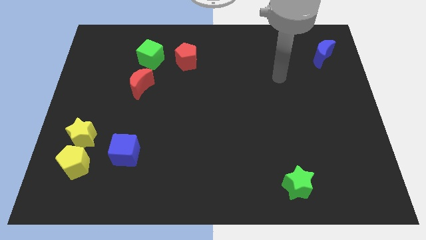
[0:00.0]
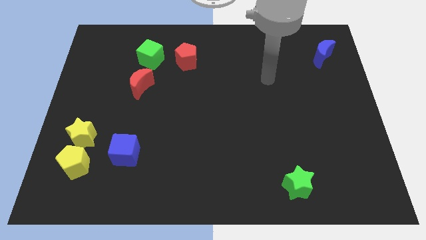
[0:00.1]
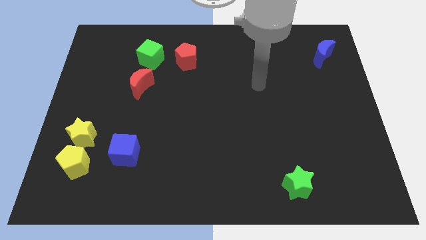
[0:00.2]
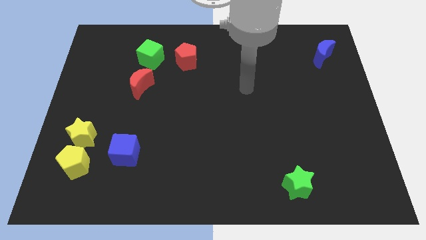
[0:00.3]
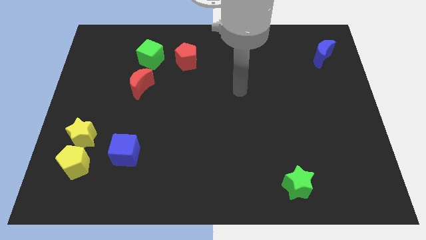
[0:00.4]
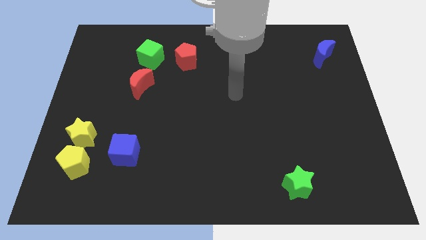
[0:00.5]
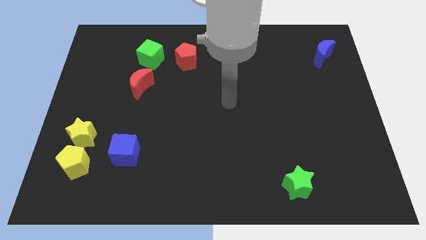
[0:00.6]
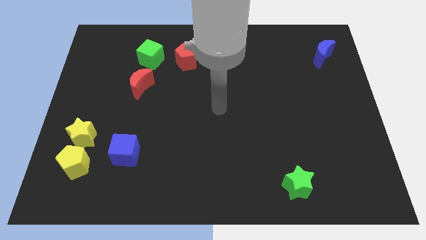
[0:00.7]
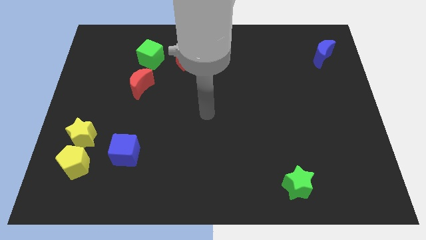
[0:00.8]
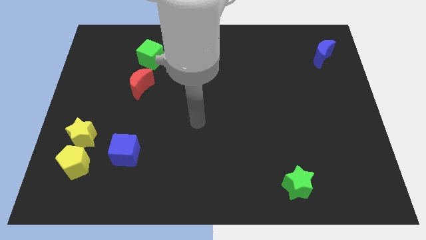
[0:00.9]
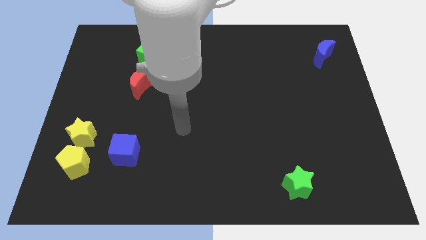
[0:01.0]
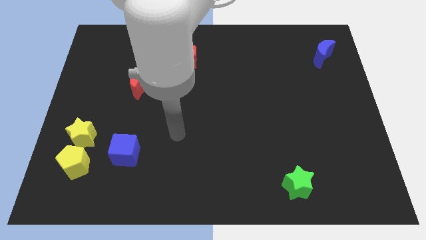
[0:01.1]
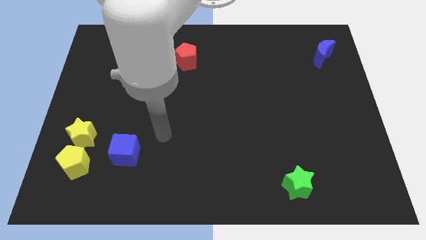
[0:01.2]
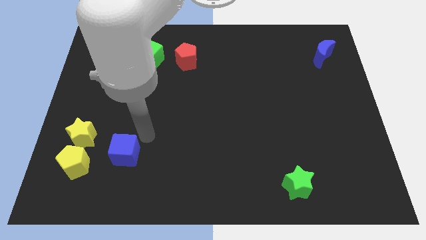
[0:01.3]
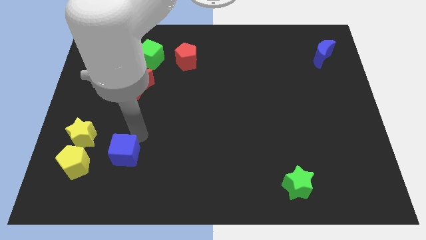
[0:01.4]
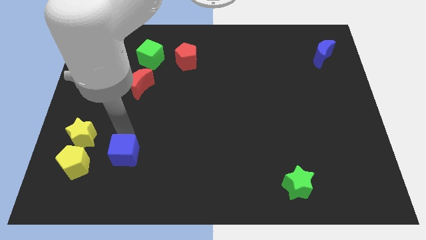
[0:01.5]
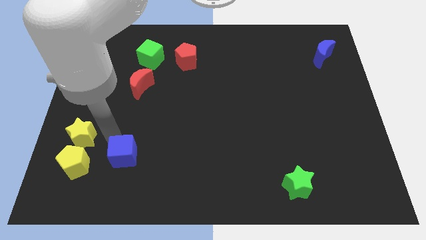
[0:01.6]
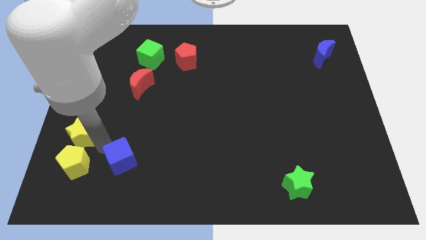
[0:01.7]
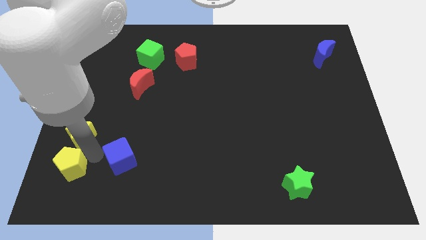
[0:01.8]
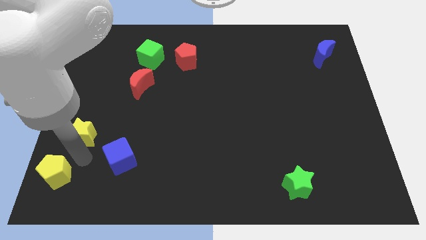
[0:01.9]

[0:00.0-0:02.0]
separate the yellow star from the yellow pentagon

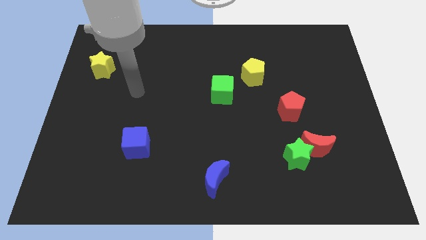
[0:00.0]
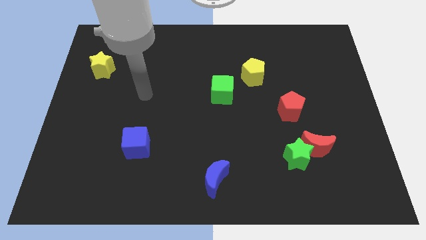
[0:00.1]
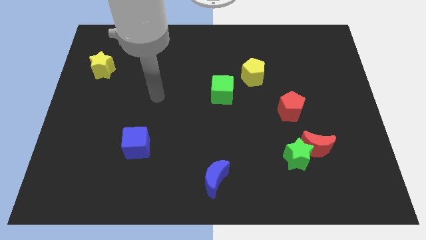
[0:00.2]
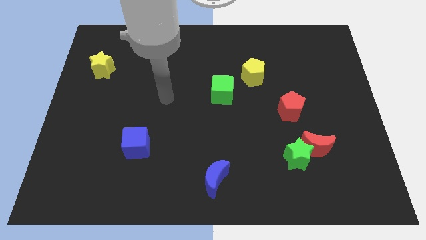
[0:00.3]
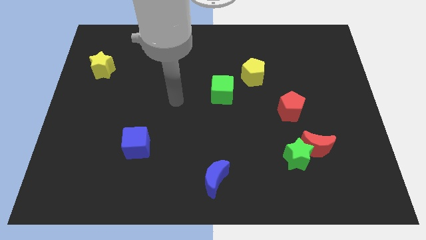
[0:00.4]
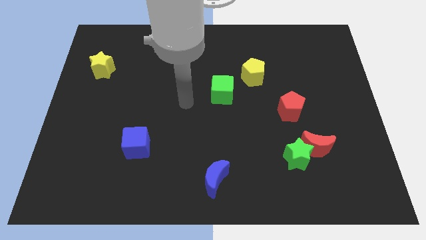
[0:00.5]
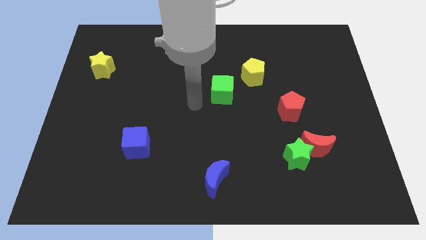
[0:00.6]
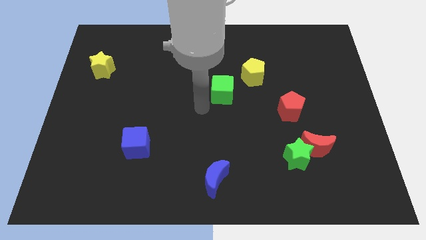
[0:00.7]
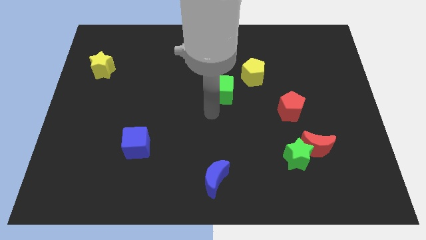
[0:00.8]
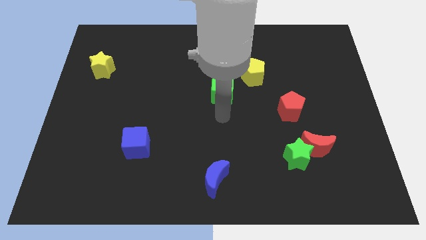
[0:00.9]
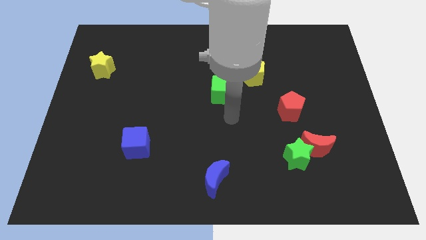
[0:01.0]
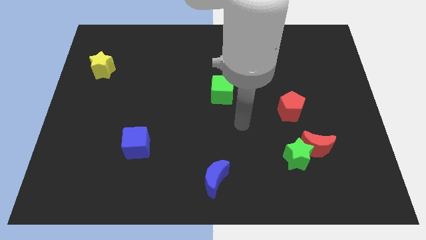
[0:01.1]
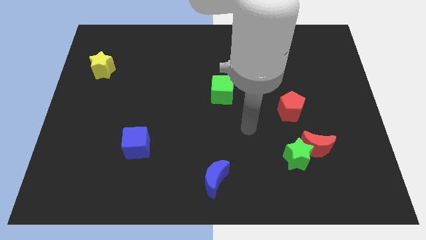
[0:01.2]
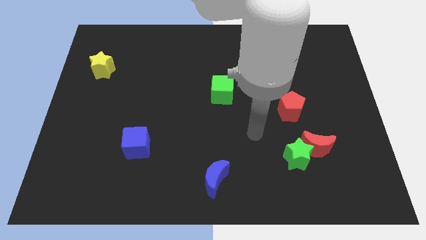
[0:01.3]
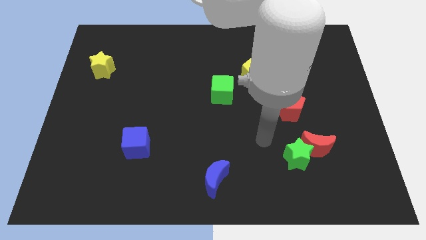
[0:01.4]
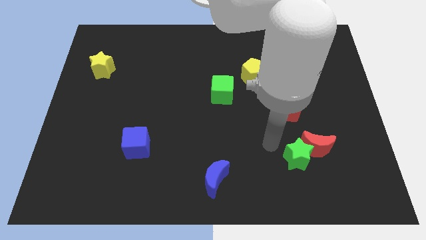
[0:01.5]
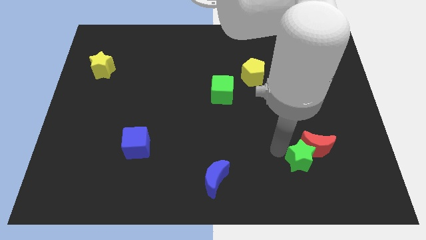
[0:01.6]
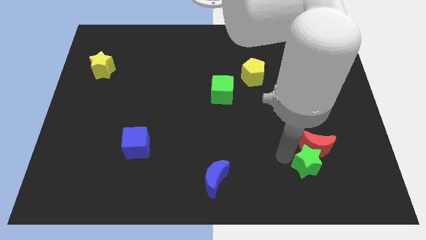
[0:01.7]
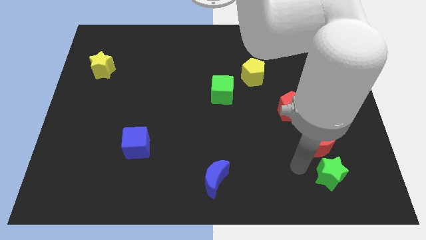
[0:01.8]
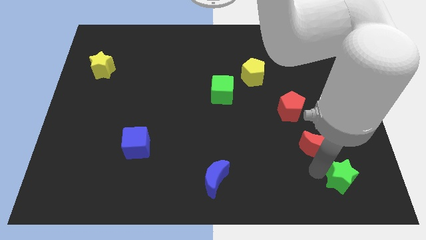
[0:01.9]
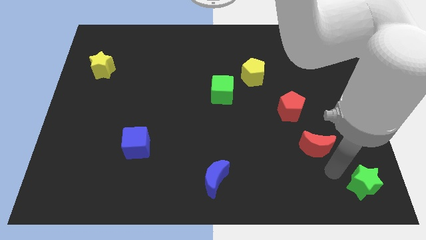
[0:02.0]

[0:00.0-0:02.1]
pull the red moon apart from the green star

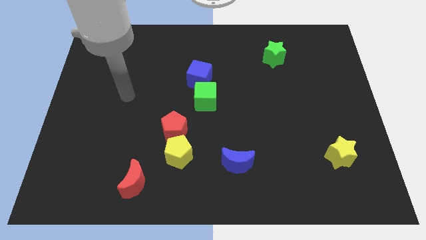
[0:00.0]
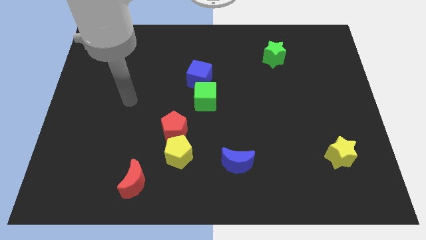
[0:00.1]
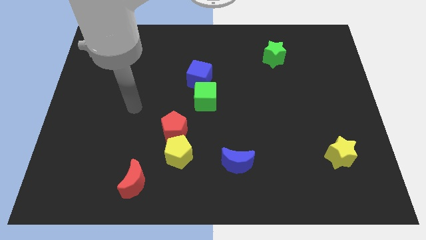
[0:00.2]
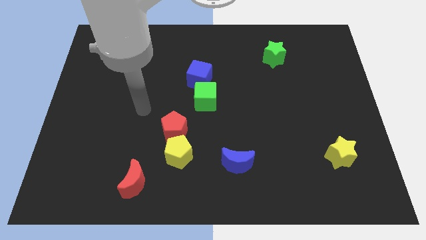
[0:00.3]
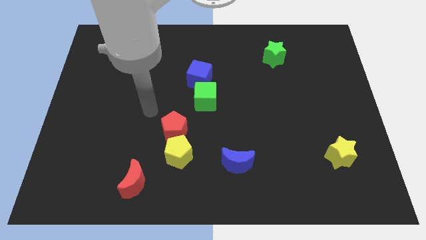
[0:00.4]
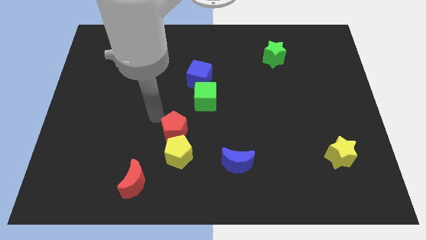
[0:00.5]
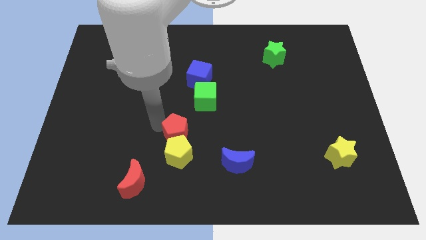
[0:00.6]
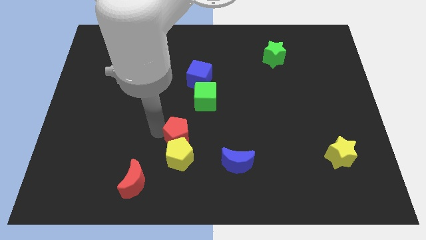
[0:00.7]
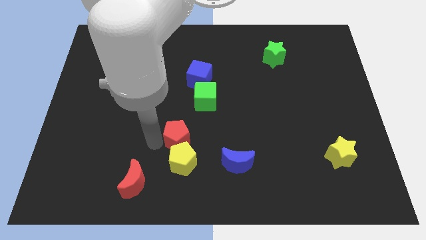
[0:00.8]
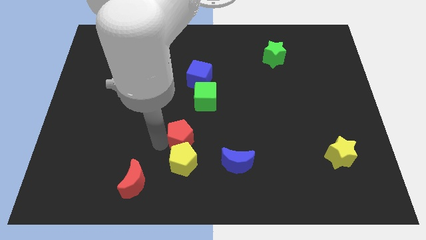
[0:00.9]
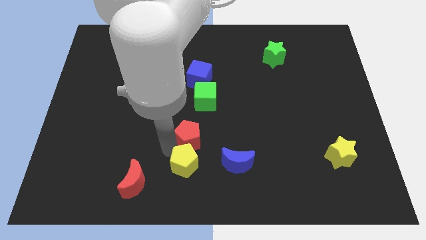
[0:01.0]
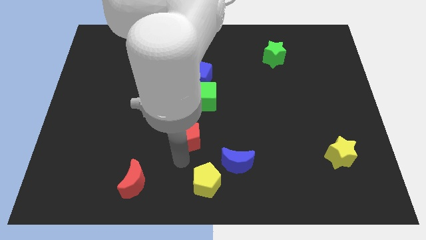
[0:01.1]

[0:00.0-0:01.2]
move the red pentagon away from the yellow pentagon

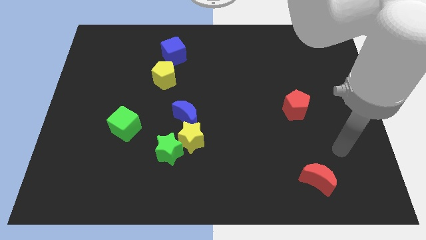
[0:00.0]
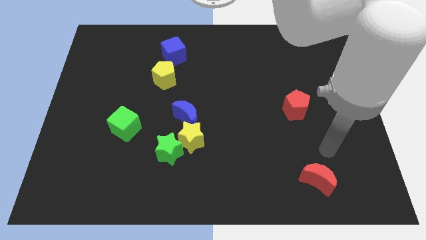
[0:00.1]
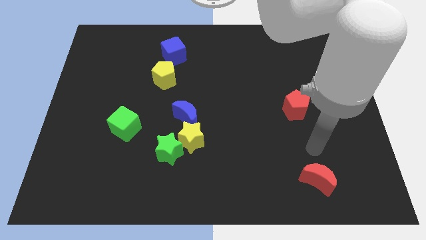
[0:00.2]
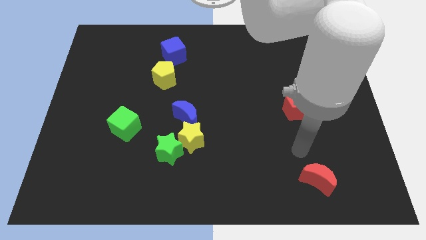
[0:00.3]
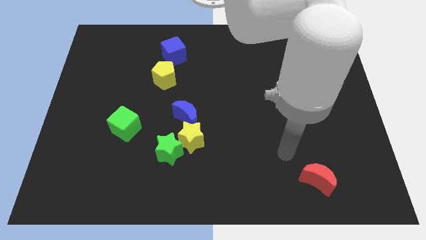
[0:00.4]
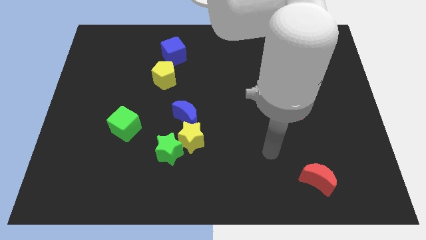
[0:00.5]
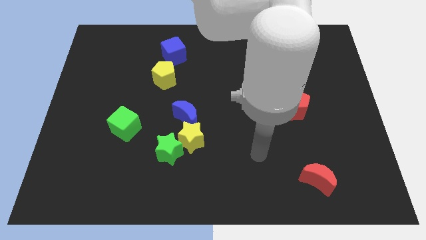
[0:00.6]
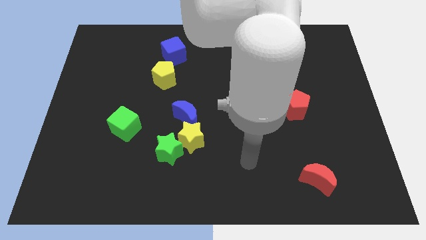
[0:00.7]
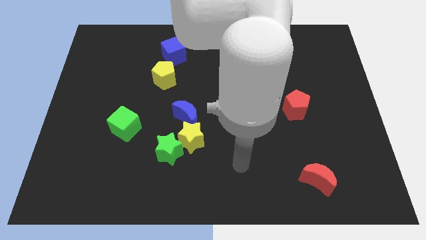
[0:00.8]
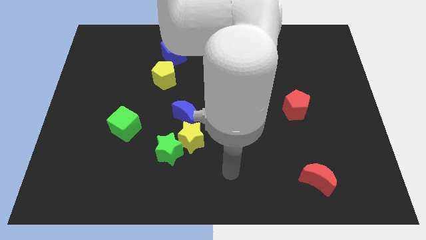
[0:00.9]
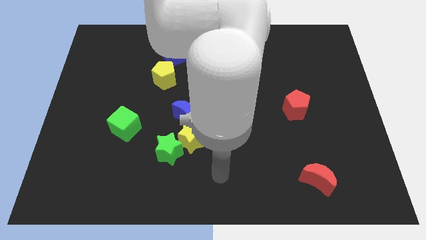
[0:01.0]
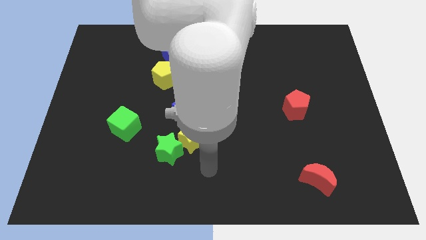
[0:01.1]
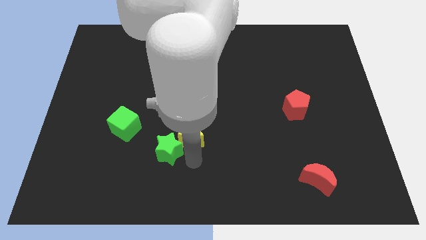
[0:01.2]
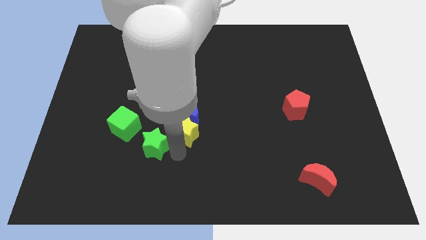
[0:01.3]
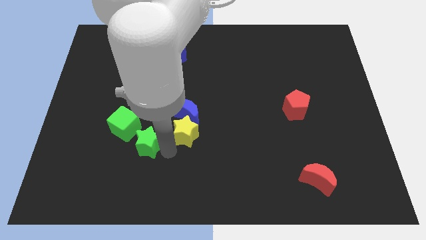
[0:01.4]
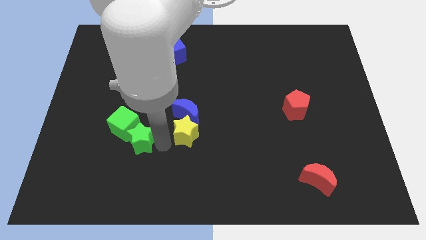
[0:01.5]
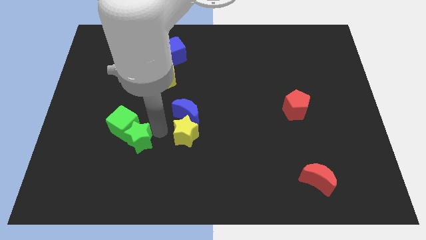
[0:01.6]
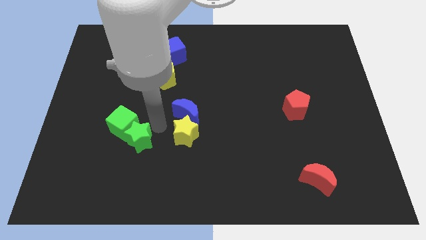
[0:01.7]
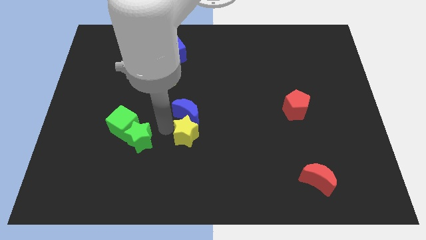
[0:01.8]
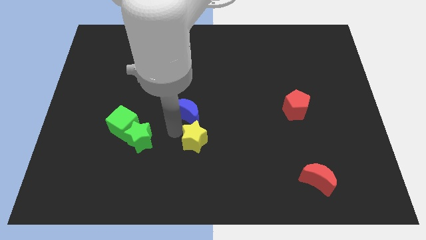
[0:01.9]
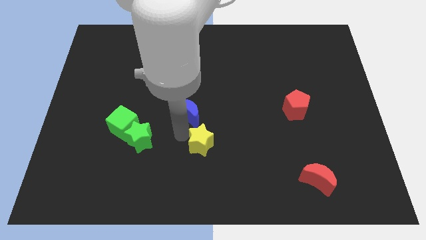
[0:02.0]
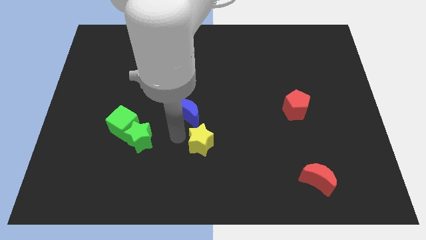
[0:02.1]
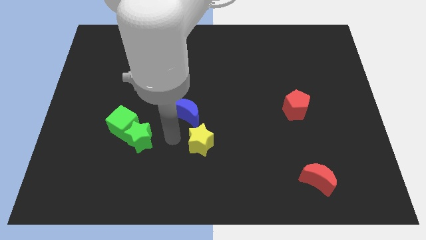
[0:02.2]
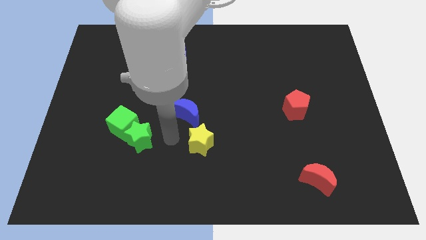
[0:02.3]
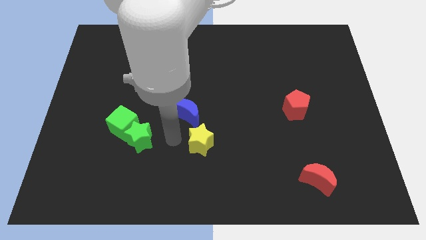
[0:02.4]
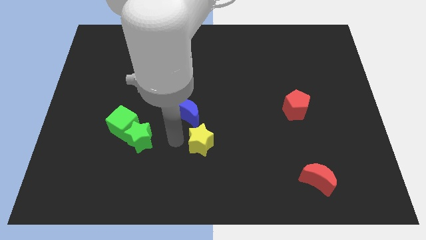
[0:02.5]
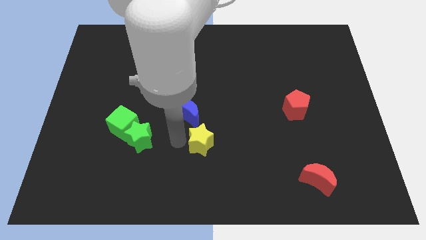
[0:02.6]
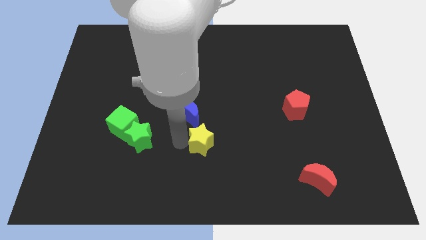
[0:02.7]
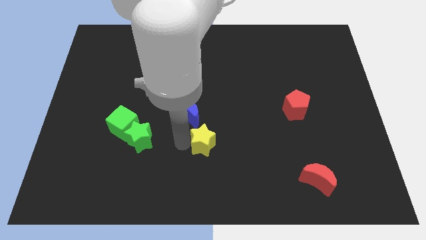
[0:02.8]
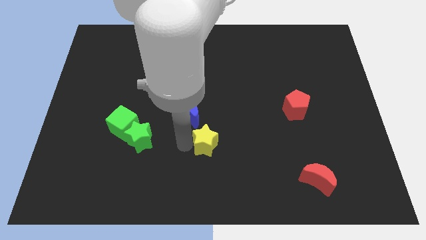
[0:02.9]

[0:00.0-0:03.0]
pull the yellow star apart from the green star and blue moon

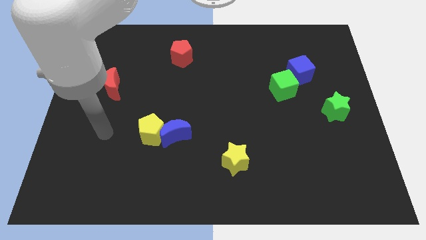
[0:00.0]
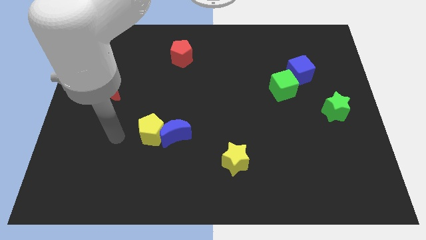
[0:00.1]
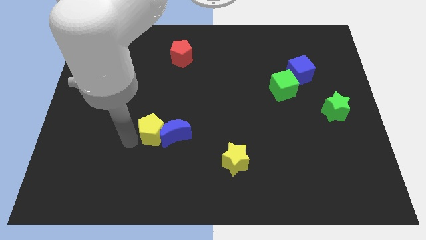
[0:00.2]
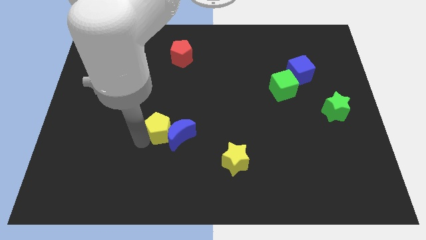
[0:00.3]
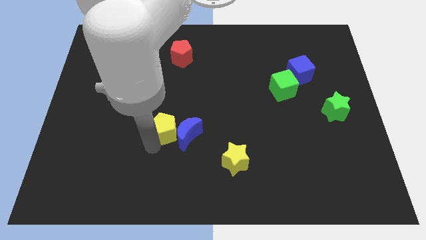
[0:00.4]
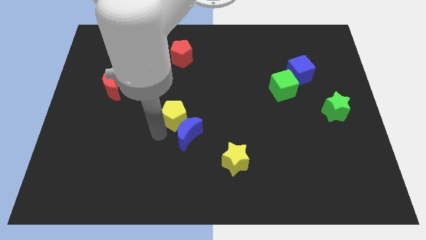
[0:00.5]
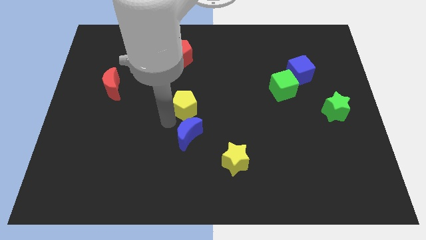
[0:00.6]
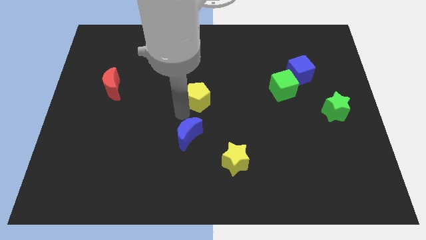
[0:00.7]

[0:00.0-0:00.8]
separate the blue moon from the yellow pentagon

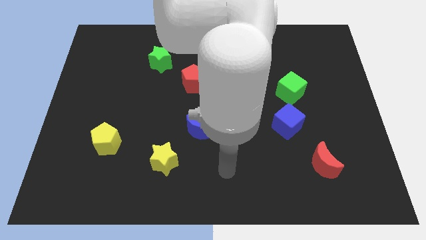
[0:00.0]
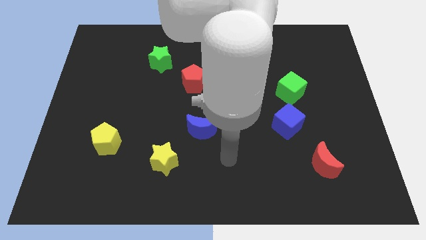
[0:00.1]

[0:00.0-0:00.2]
pull the blue cube apart from the green cube
